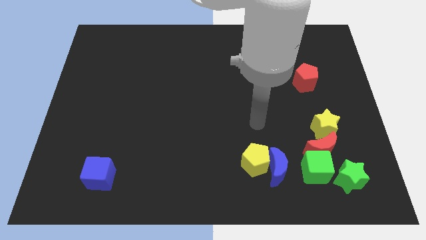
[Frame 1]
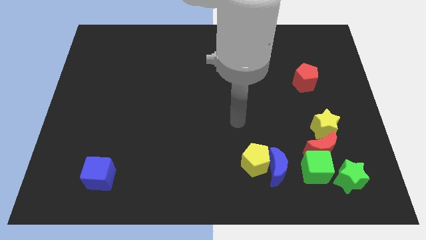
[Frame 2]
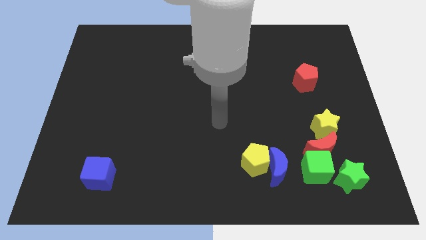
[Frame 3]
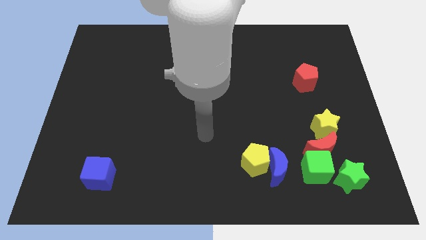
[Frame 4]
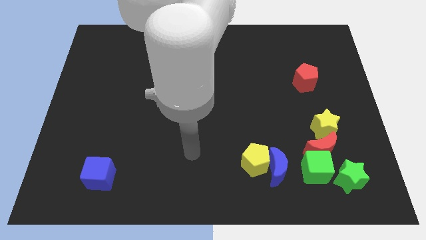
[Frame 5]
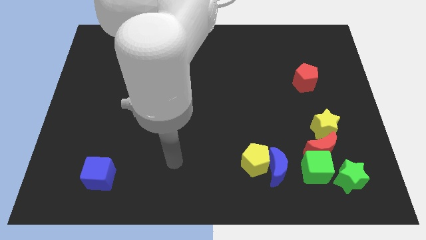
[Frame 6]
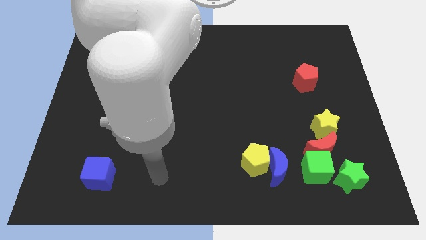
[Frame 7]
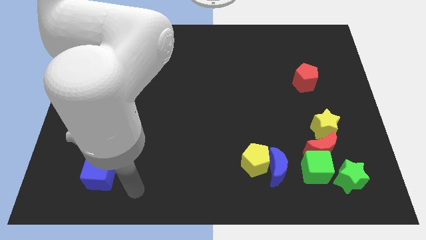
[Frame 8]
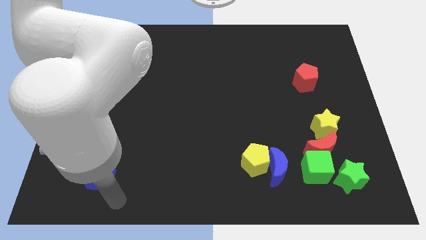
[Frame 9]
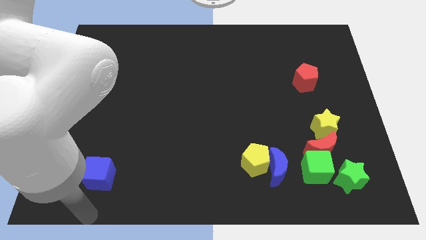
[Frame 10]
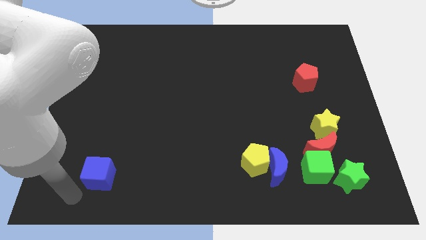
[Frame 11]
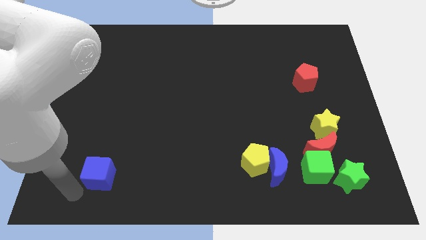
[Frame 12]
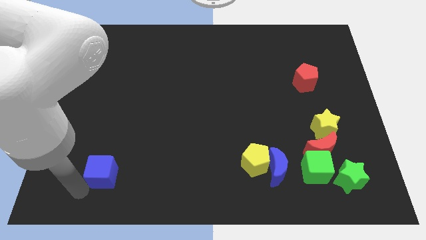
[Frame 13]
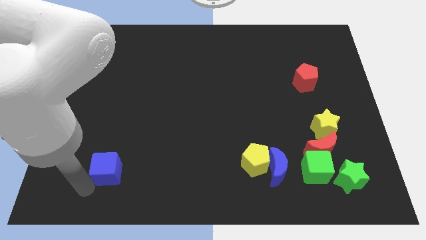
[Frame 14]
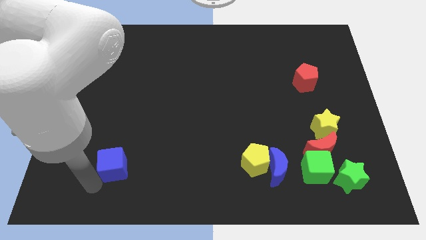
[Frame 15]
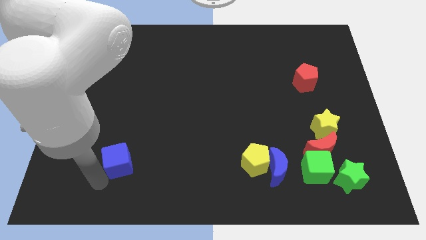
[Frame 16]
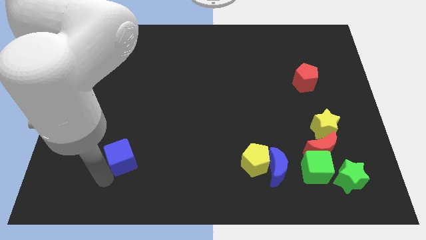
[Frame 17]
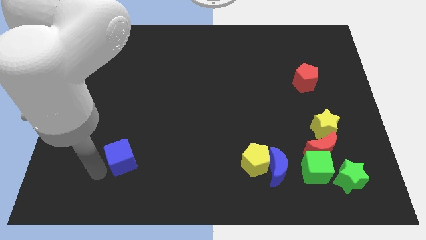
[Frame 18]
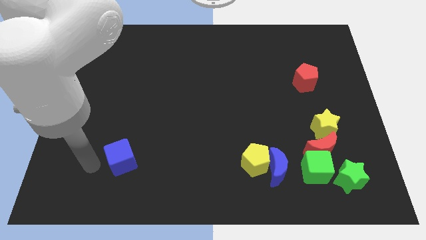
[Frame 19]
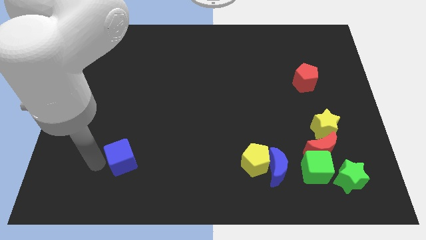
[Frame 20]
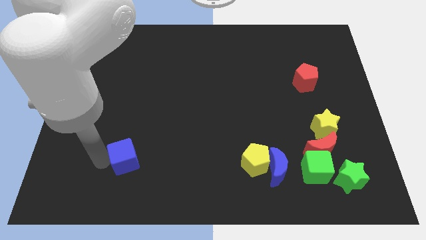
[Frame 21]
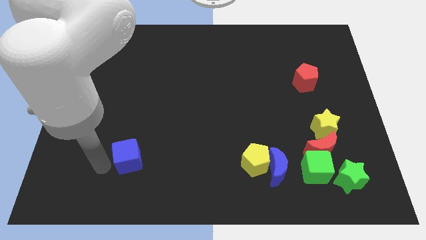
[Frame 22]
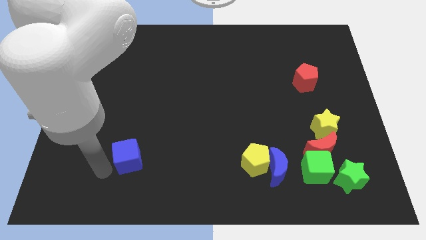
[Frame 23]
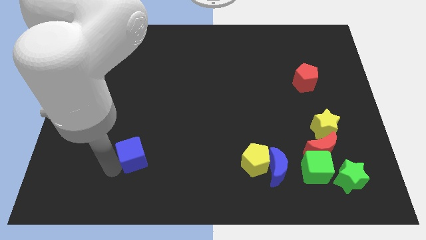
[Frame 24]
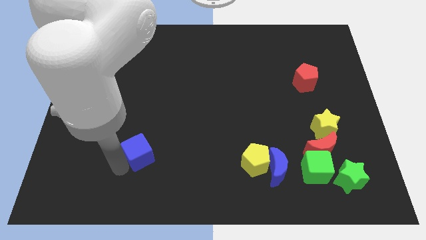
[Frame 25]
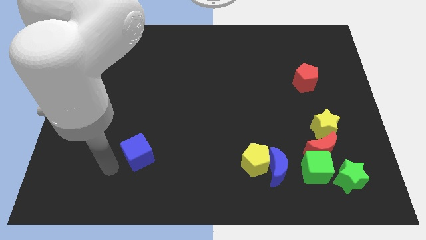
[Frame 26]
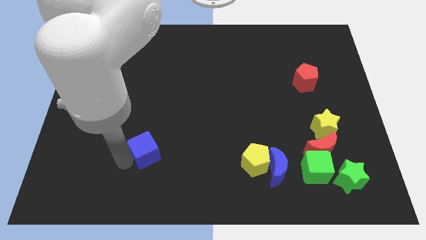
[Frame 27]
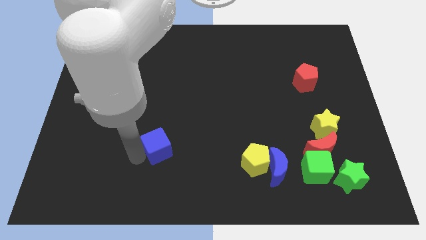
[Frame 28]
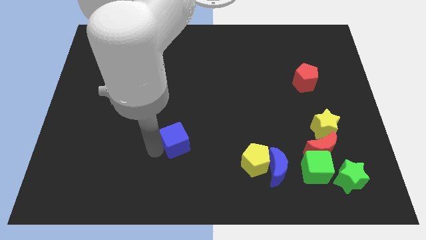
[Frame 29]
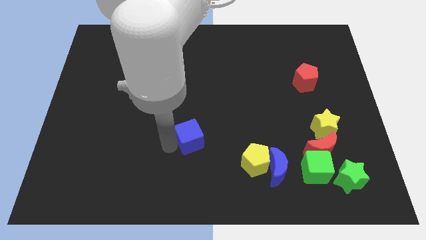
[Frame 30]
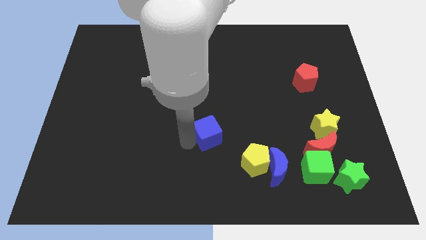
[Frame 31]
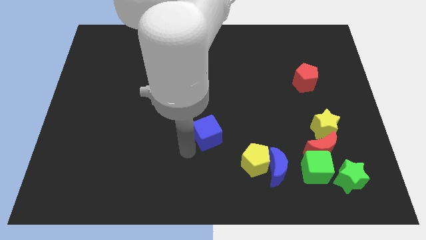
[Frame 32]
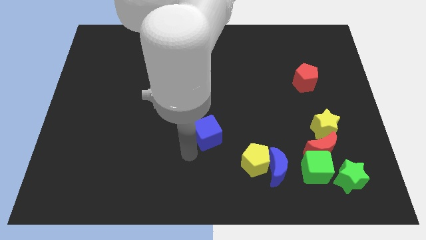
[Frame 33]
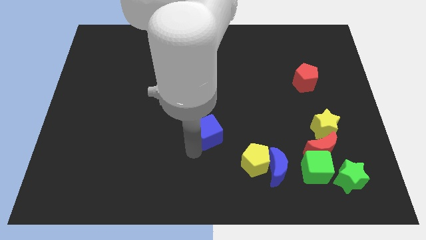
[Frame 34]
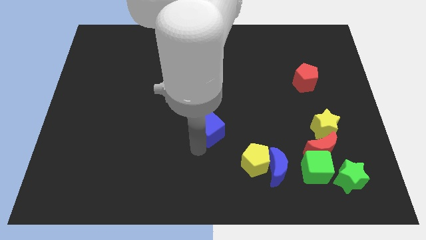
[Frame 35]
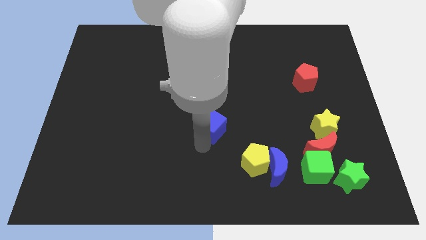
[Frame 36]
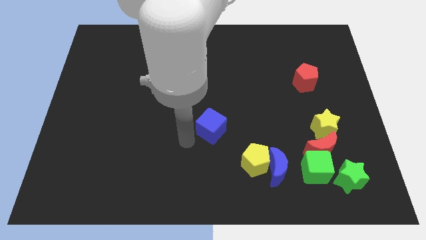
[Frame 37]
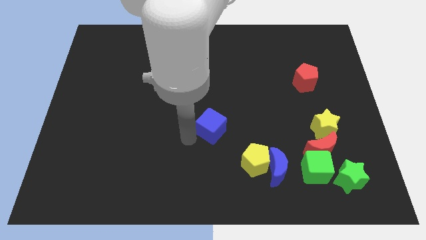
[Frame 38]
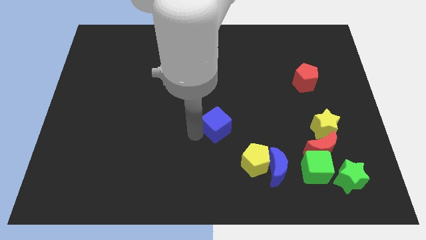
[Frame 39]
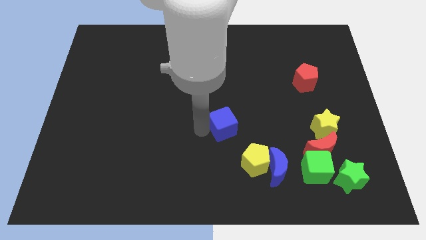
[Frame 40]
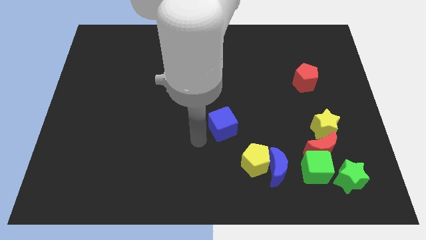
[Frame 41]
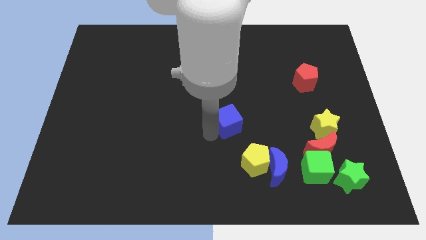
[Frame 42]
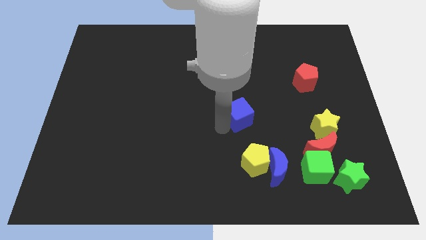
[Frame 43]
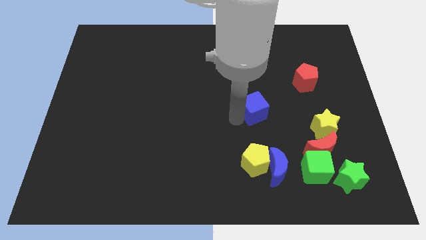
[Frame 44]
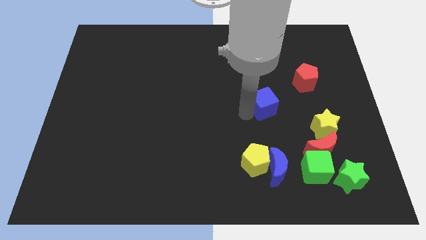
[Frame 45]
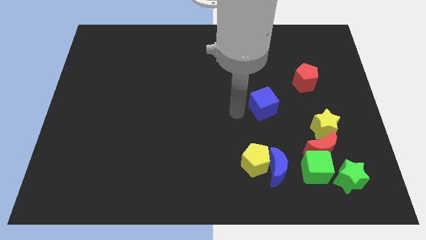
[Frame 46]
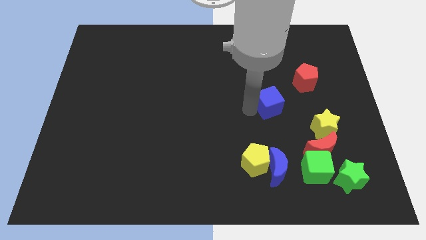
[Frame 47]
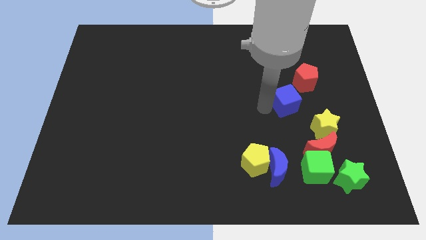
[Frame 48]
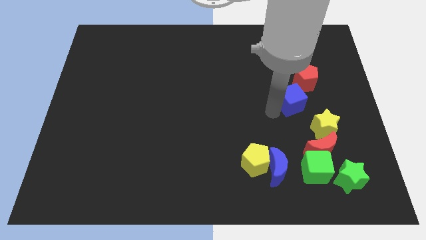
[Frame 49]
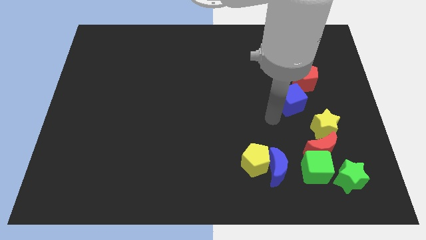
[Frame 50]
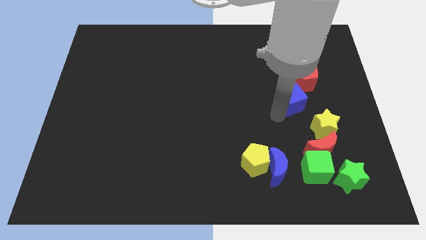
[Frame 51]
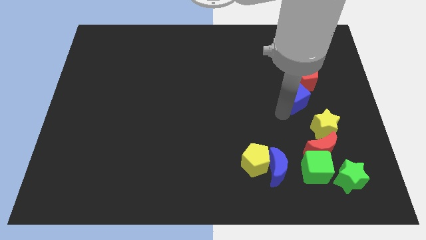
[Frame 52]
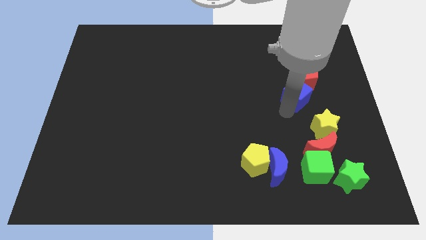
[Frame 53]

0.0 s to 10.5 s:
move the blue cube towards the red pentagon

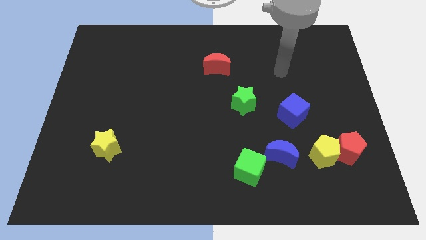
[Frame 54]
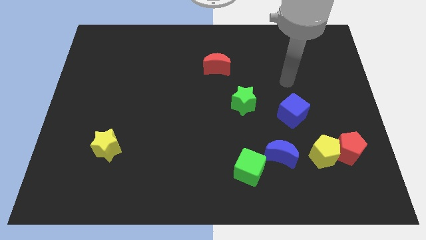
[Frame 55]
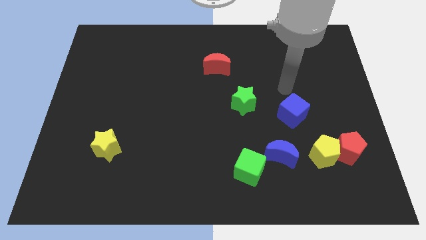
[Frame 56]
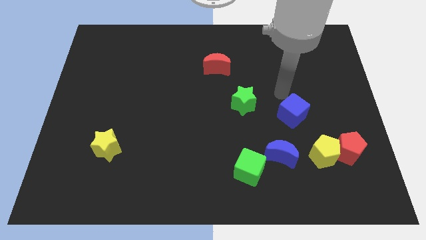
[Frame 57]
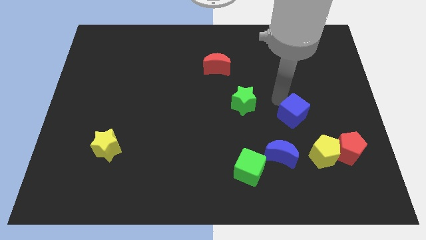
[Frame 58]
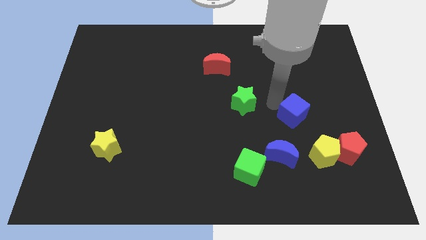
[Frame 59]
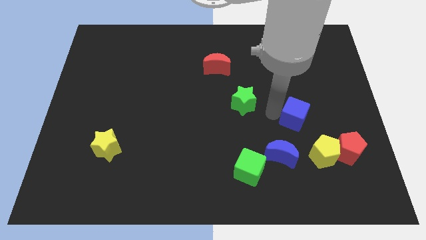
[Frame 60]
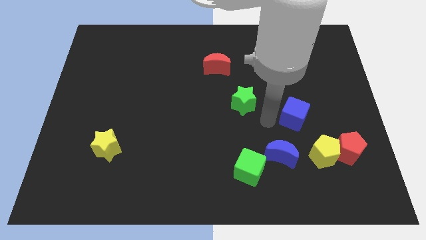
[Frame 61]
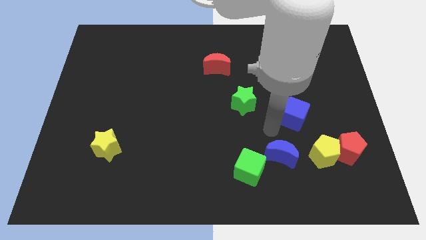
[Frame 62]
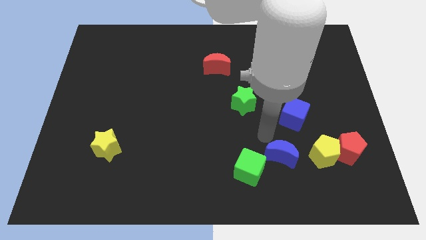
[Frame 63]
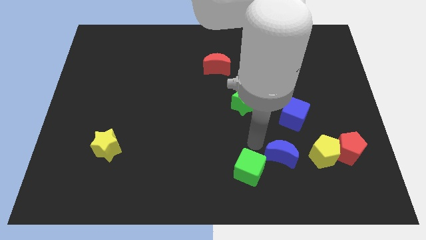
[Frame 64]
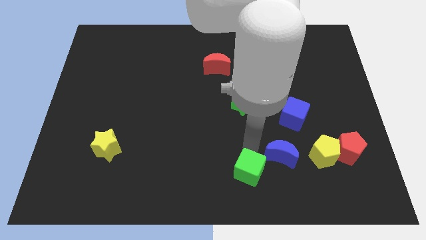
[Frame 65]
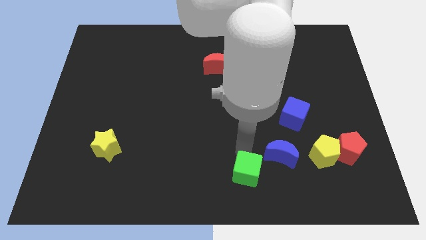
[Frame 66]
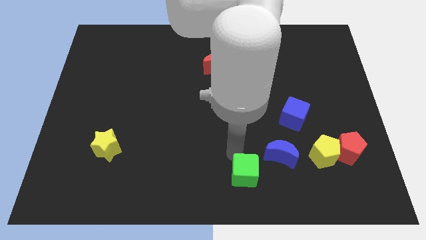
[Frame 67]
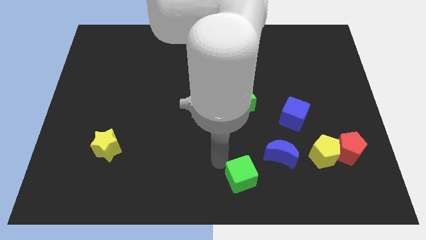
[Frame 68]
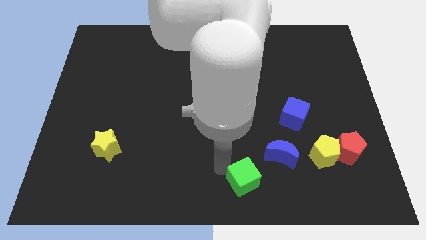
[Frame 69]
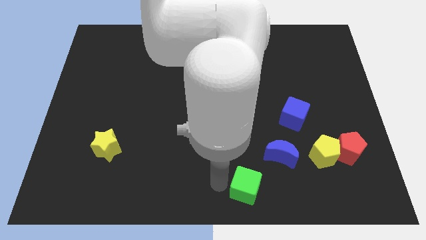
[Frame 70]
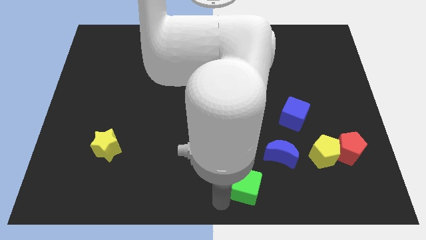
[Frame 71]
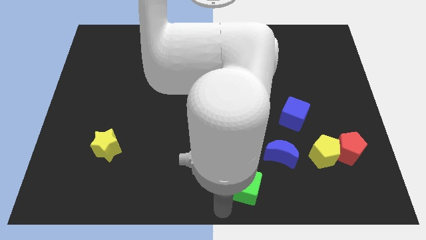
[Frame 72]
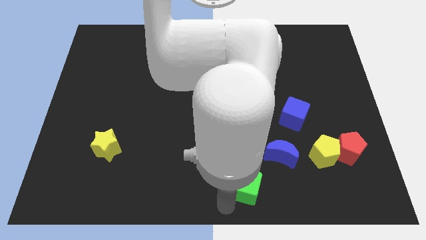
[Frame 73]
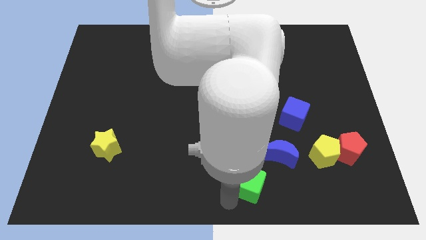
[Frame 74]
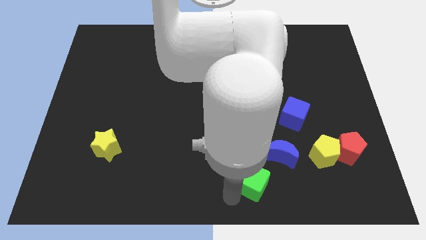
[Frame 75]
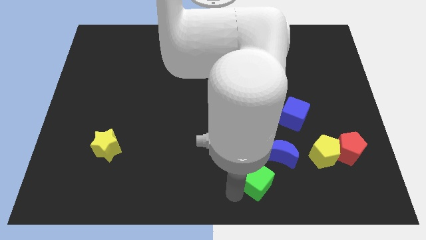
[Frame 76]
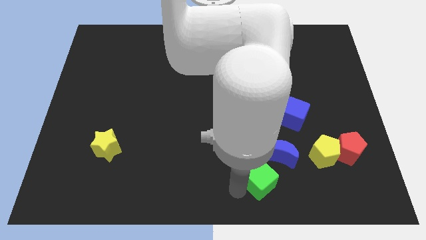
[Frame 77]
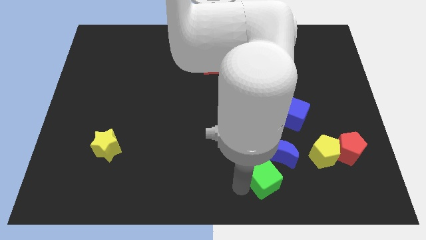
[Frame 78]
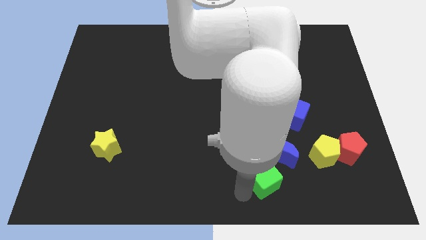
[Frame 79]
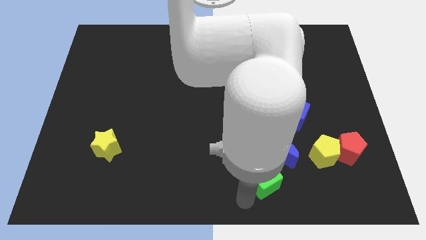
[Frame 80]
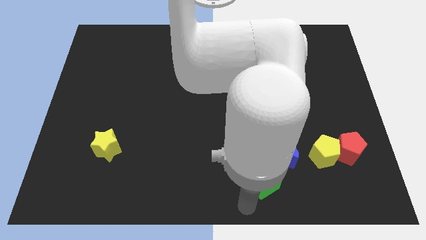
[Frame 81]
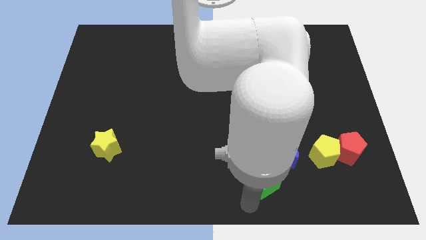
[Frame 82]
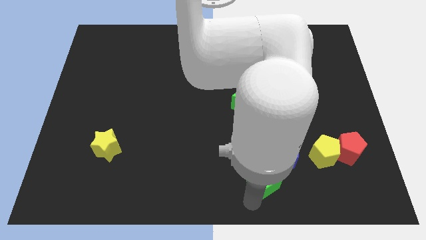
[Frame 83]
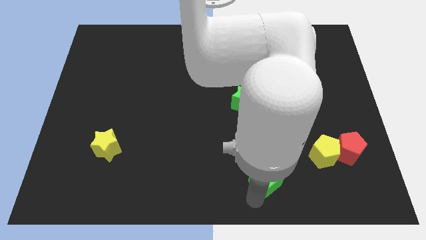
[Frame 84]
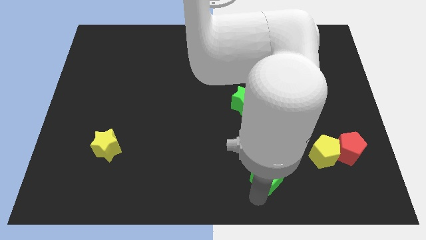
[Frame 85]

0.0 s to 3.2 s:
move the green cube towards the blue moon
